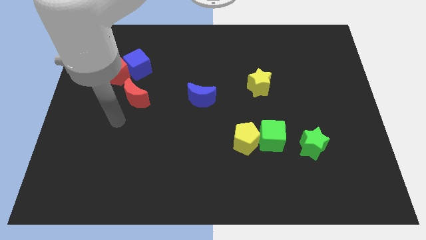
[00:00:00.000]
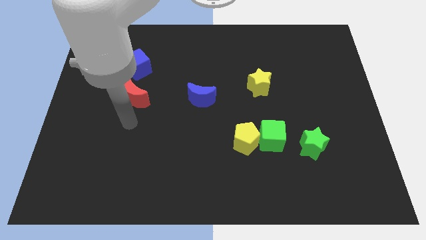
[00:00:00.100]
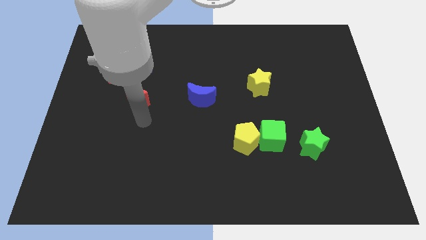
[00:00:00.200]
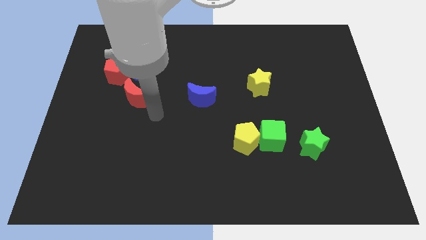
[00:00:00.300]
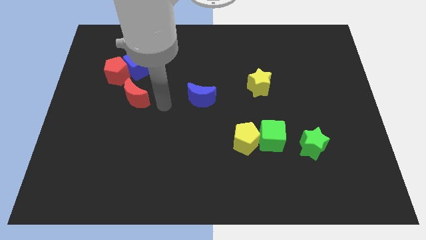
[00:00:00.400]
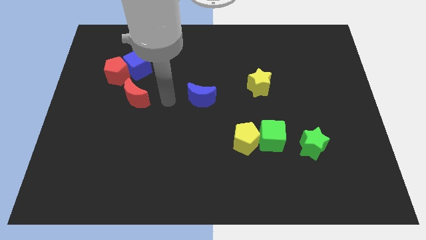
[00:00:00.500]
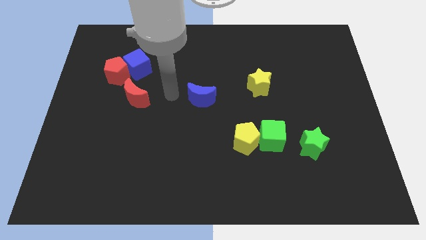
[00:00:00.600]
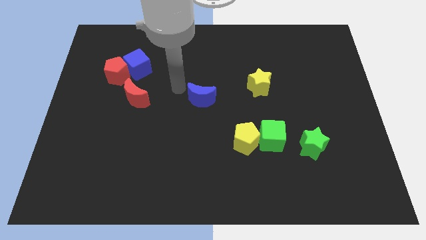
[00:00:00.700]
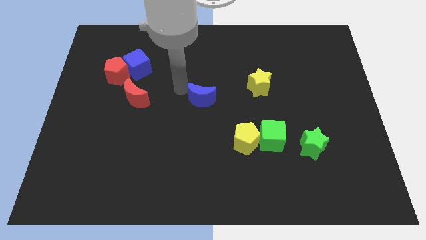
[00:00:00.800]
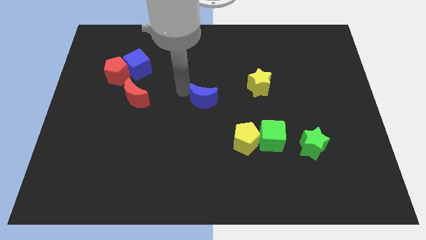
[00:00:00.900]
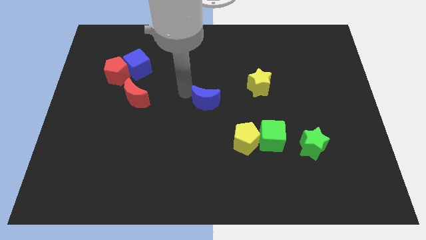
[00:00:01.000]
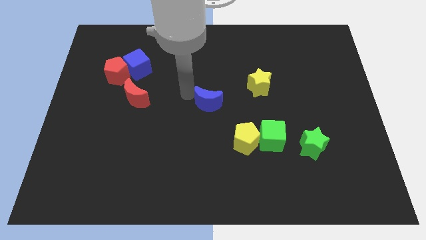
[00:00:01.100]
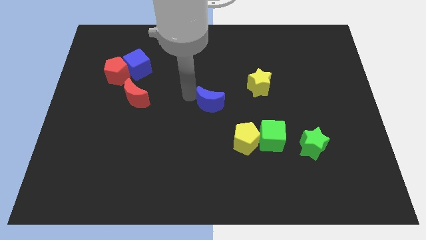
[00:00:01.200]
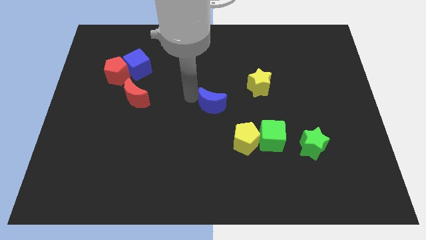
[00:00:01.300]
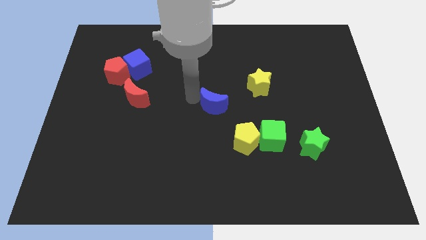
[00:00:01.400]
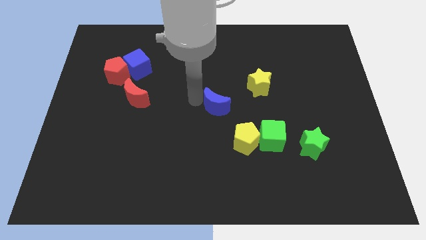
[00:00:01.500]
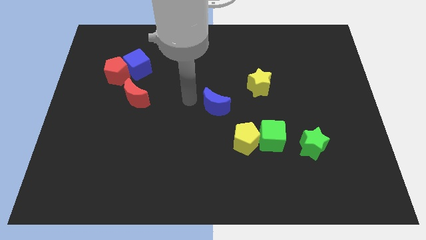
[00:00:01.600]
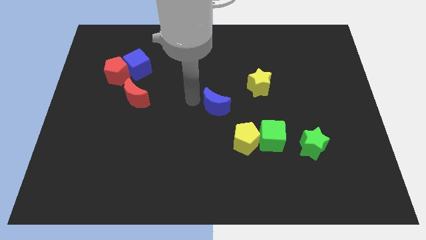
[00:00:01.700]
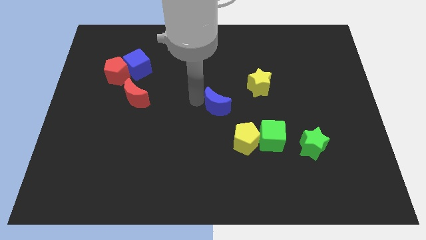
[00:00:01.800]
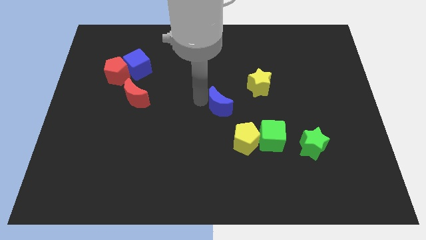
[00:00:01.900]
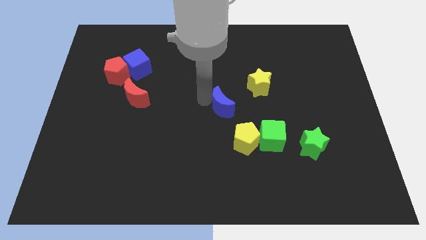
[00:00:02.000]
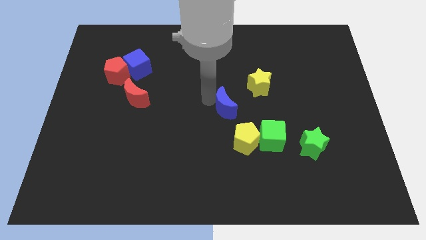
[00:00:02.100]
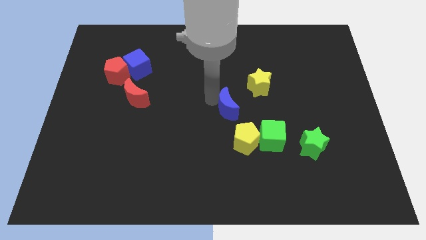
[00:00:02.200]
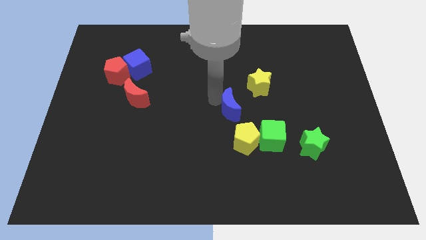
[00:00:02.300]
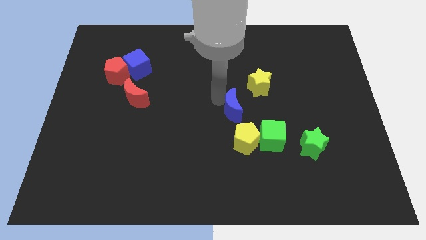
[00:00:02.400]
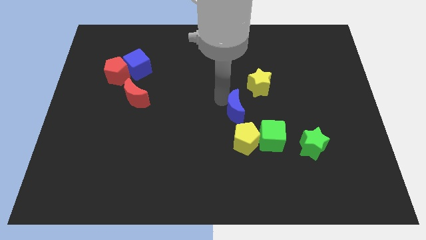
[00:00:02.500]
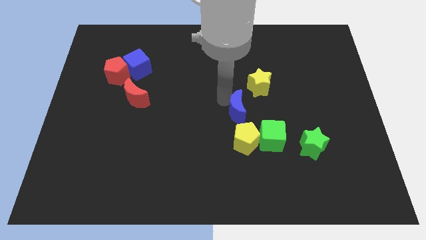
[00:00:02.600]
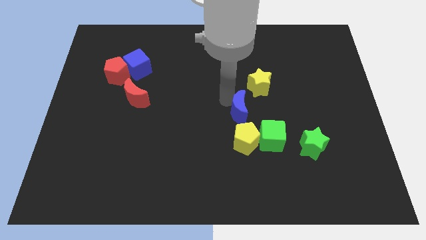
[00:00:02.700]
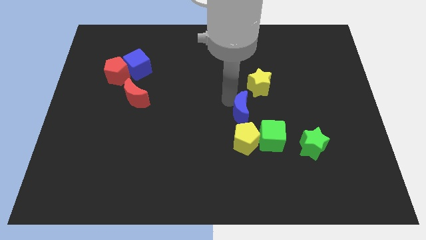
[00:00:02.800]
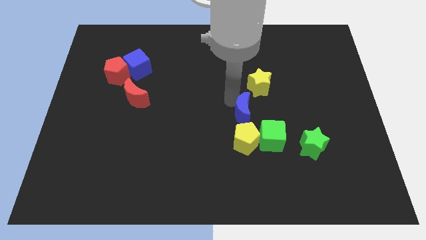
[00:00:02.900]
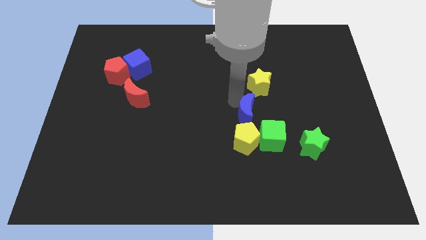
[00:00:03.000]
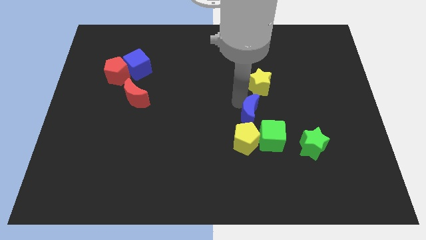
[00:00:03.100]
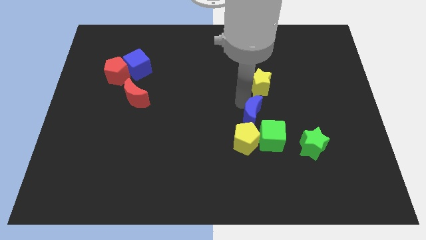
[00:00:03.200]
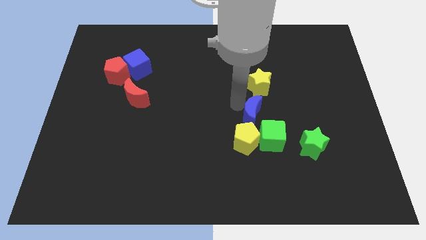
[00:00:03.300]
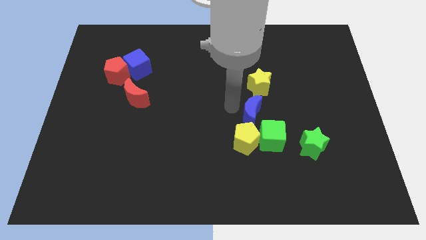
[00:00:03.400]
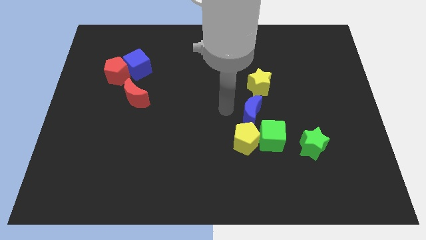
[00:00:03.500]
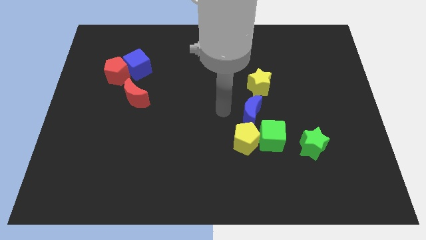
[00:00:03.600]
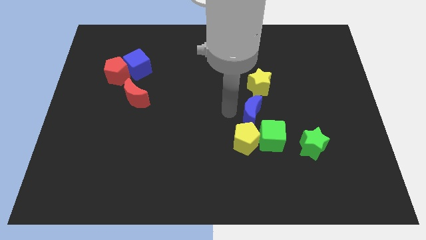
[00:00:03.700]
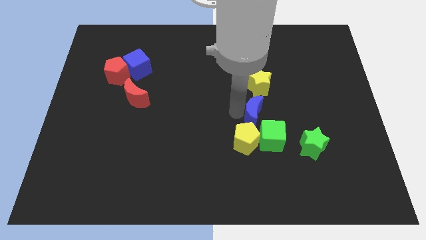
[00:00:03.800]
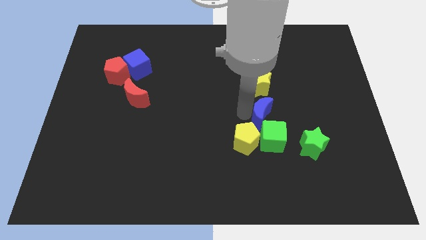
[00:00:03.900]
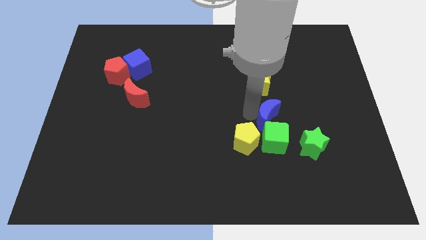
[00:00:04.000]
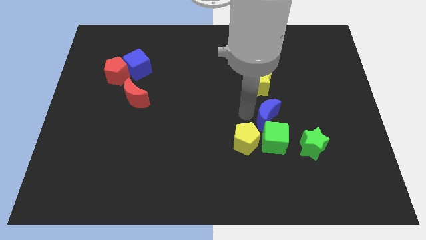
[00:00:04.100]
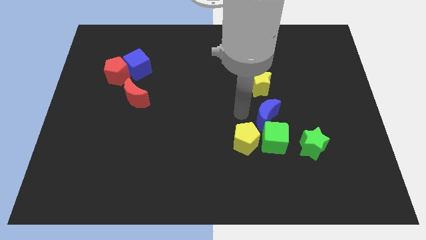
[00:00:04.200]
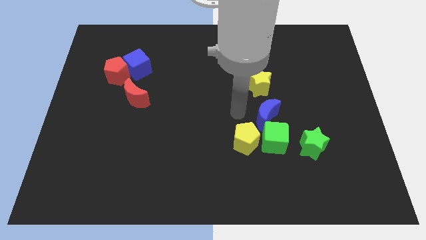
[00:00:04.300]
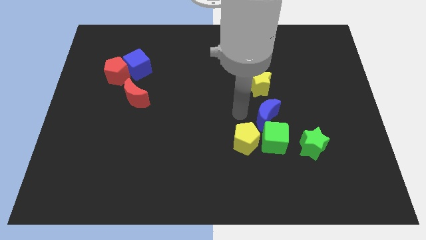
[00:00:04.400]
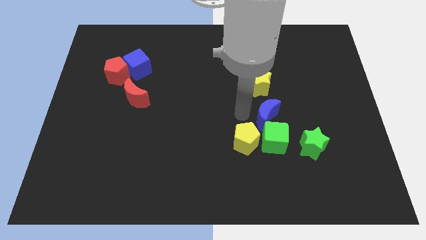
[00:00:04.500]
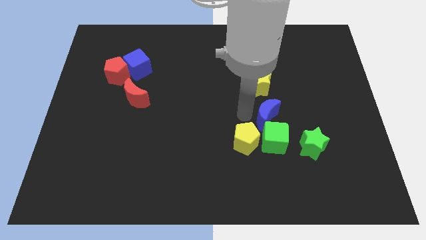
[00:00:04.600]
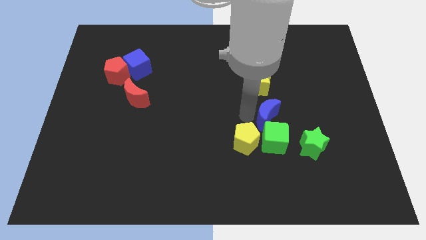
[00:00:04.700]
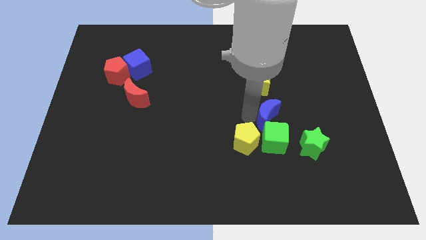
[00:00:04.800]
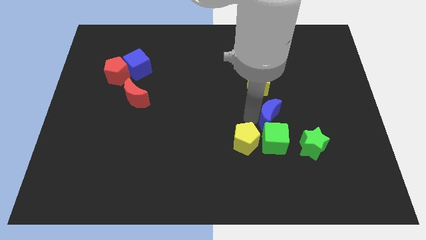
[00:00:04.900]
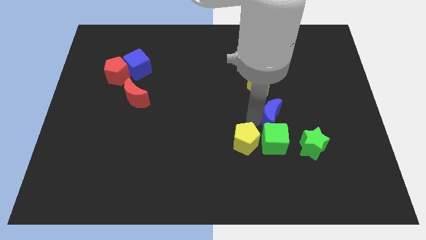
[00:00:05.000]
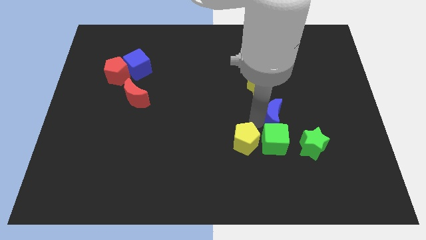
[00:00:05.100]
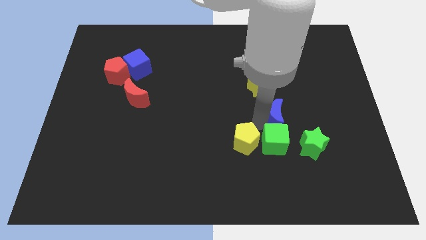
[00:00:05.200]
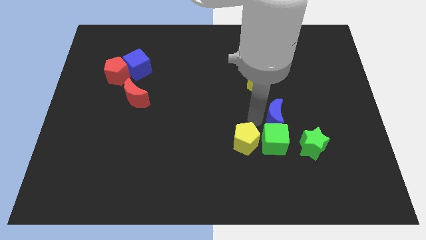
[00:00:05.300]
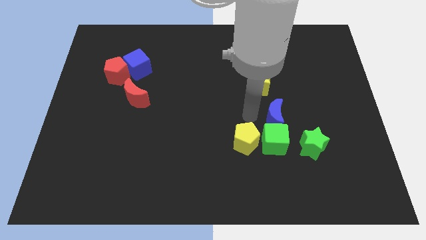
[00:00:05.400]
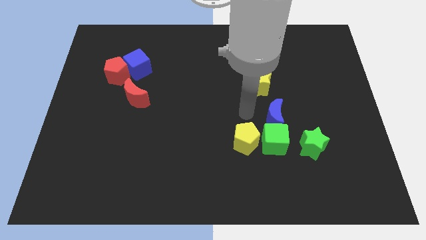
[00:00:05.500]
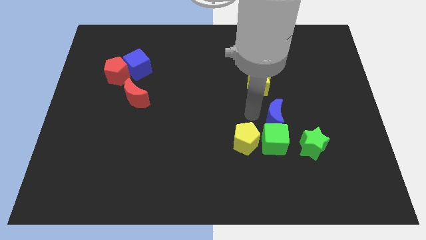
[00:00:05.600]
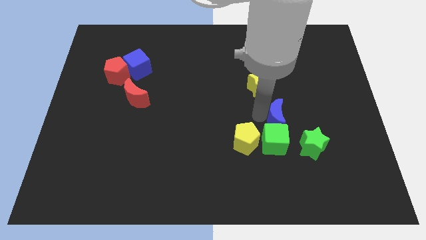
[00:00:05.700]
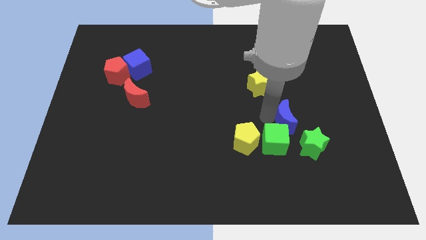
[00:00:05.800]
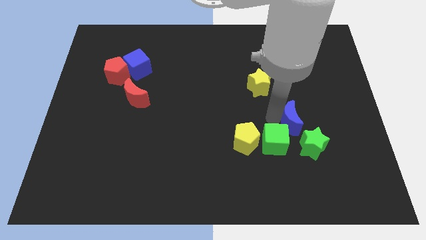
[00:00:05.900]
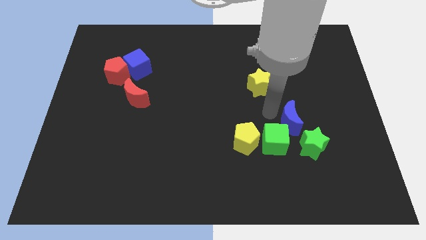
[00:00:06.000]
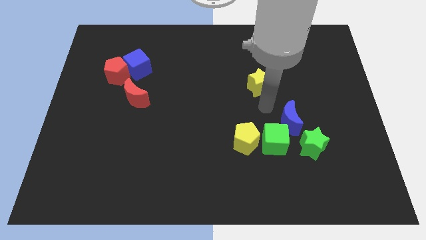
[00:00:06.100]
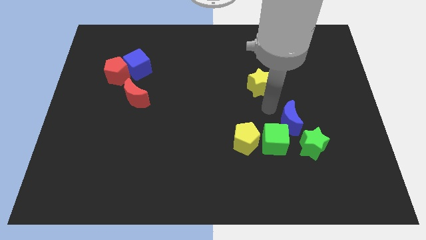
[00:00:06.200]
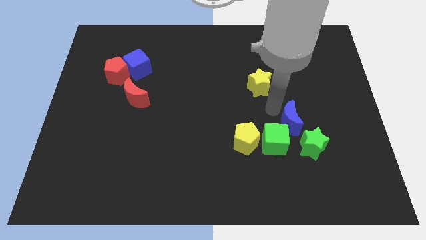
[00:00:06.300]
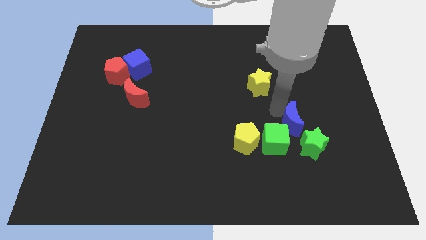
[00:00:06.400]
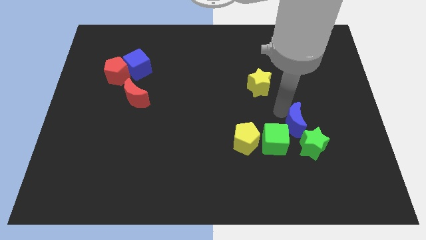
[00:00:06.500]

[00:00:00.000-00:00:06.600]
push the blue moon to the right of the green cube

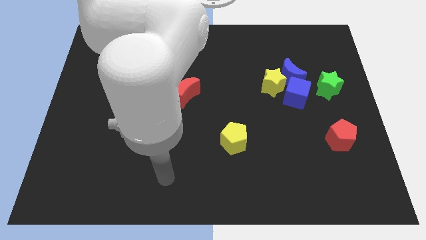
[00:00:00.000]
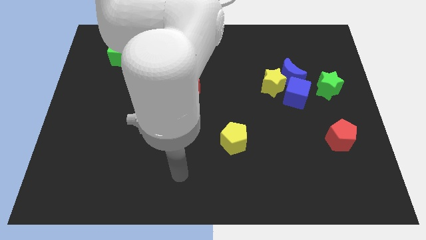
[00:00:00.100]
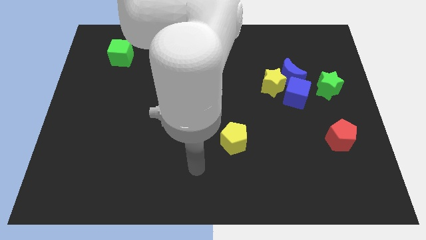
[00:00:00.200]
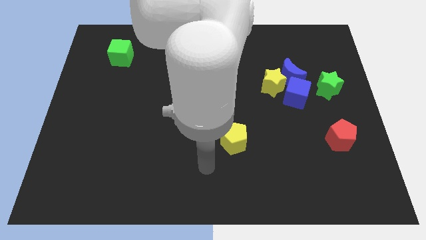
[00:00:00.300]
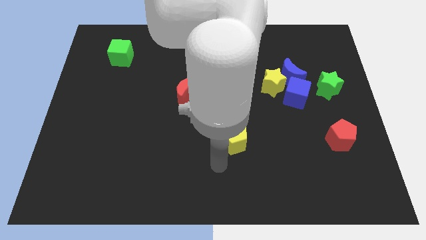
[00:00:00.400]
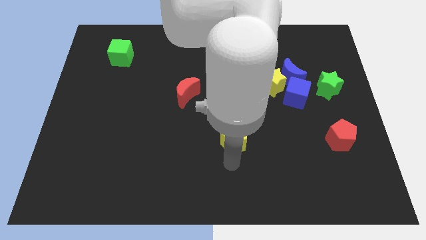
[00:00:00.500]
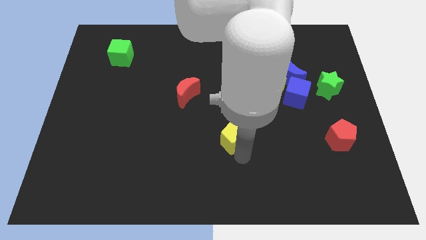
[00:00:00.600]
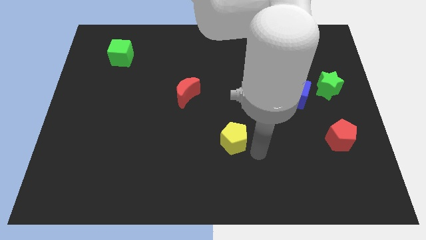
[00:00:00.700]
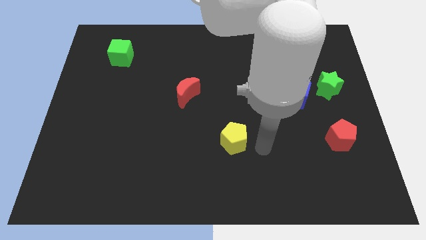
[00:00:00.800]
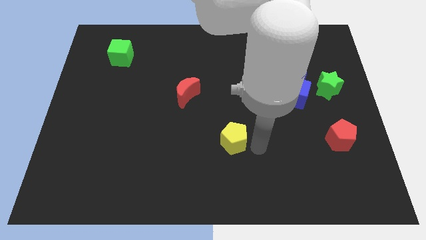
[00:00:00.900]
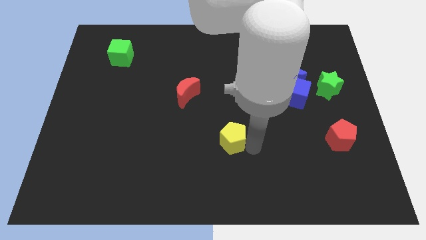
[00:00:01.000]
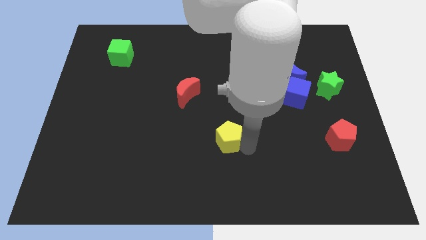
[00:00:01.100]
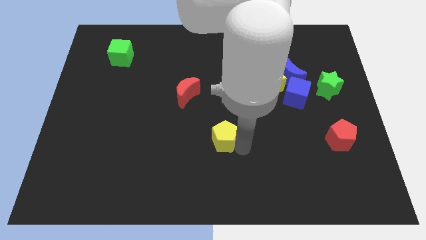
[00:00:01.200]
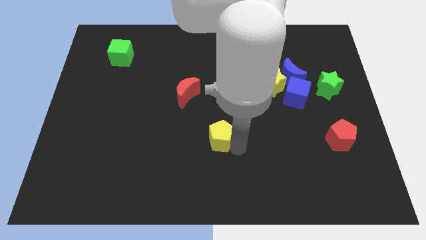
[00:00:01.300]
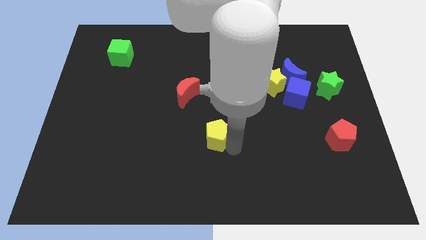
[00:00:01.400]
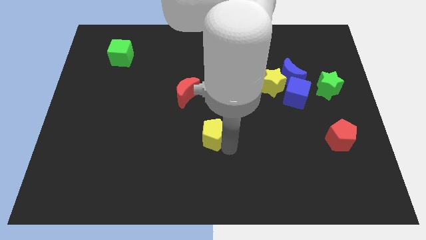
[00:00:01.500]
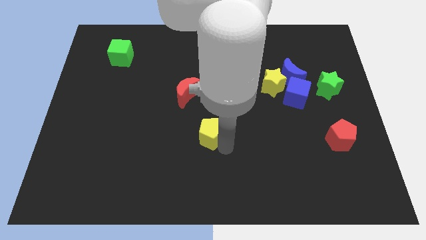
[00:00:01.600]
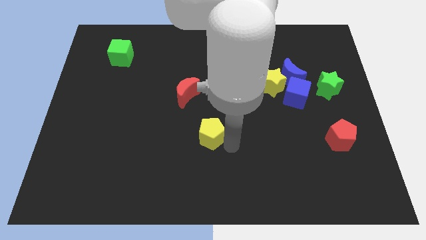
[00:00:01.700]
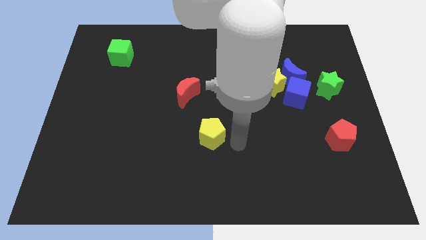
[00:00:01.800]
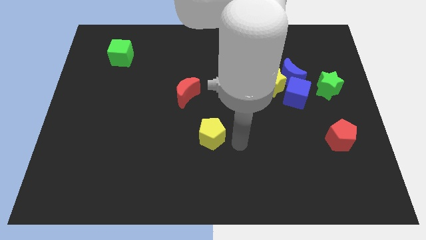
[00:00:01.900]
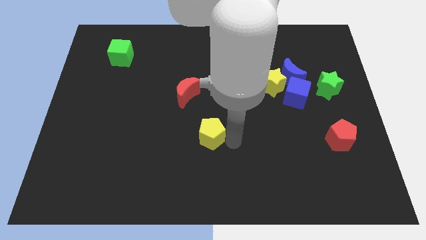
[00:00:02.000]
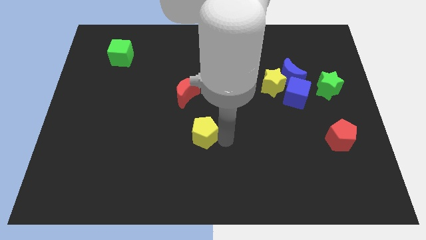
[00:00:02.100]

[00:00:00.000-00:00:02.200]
slide the yellow pentagon to the bottom side of the red moon
